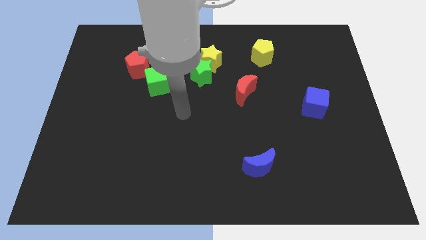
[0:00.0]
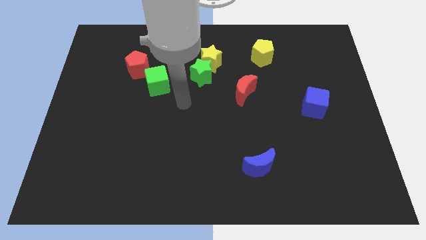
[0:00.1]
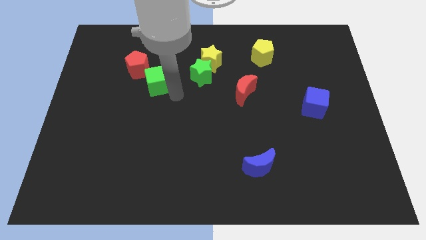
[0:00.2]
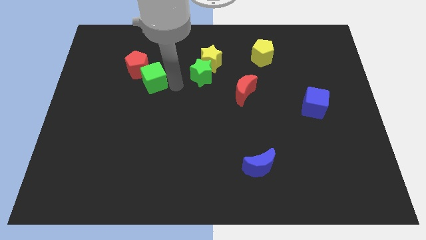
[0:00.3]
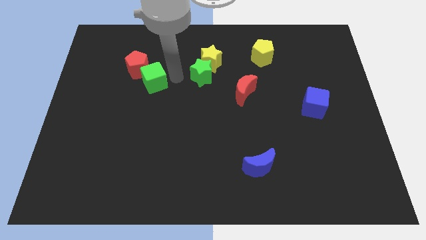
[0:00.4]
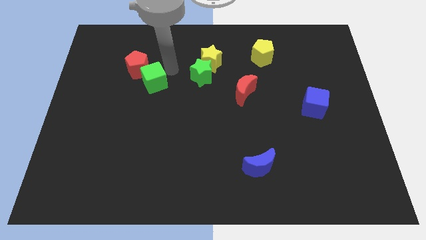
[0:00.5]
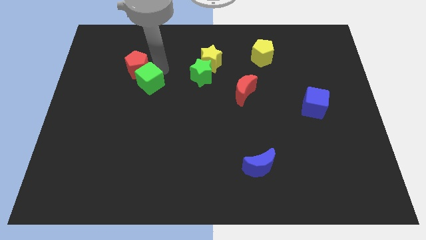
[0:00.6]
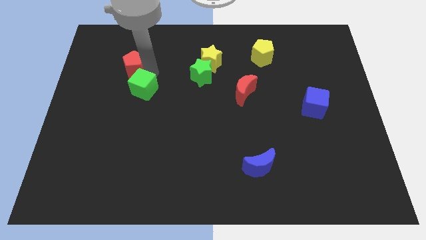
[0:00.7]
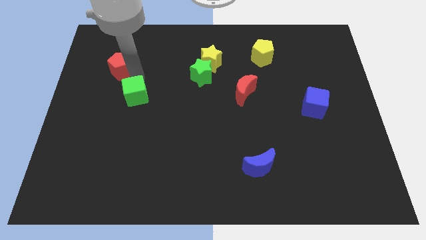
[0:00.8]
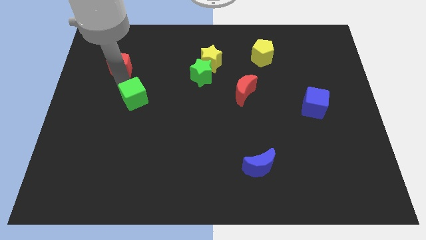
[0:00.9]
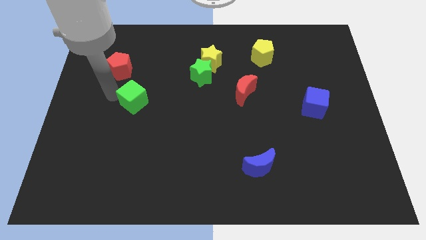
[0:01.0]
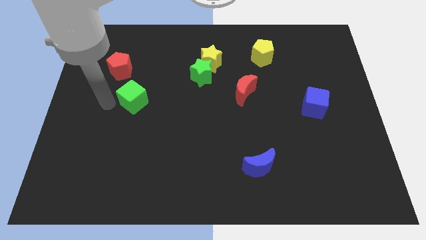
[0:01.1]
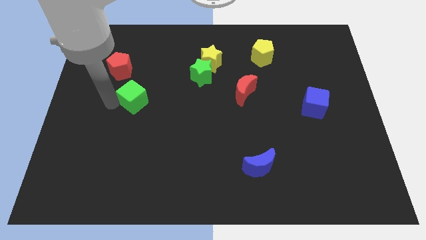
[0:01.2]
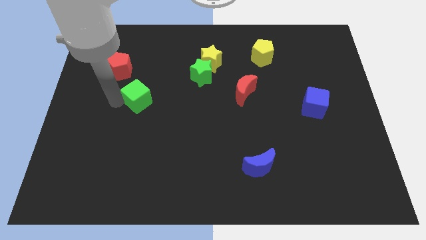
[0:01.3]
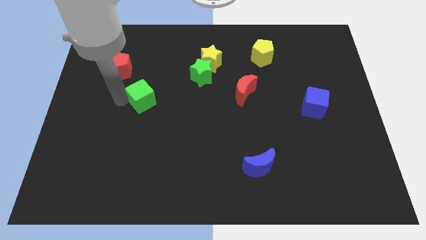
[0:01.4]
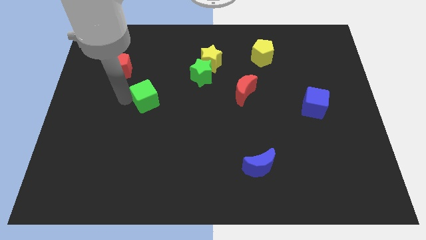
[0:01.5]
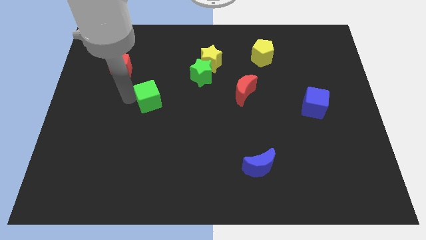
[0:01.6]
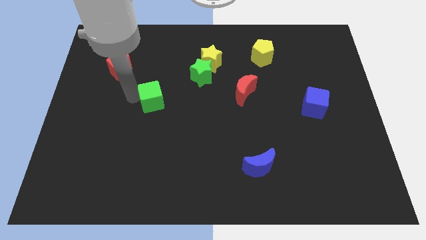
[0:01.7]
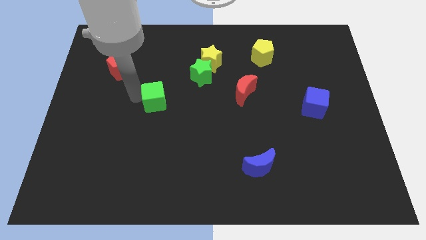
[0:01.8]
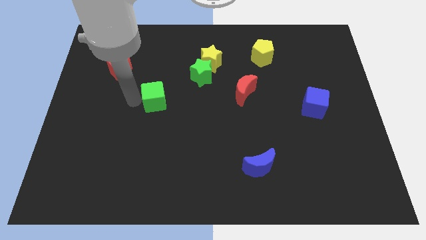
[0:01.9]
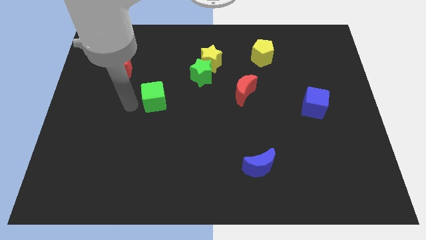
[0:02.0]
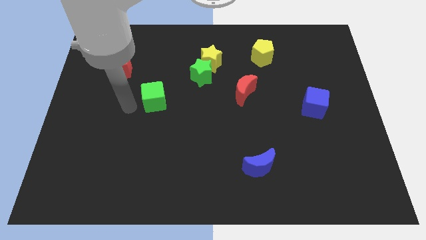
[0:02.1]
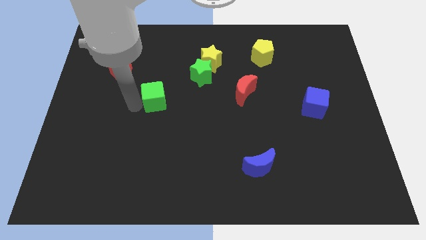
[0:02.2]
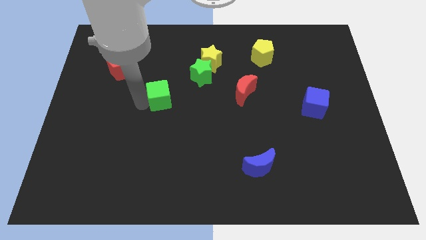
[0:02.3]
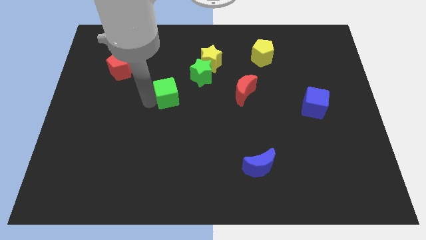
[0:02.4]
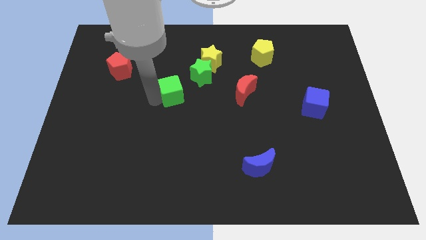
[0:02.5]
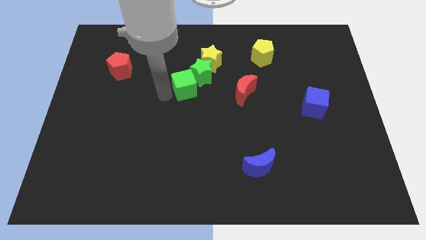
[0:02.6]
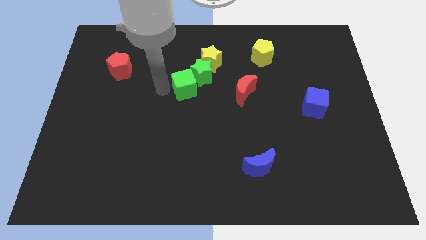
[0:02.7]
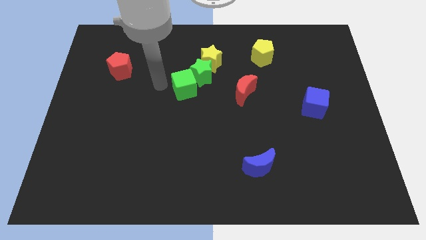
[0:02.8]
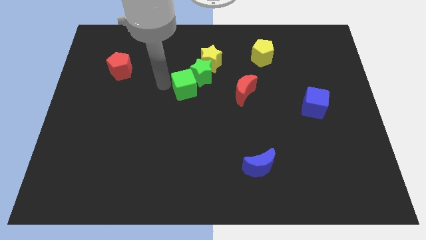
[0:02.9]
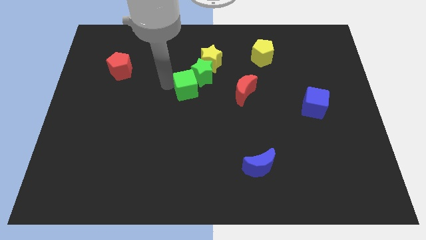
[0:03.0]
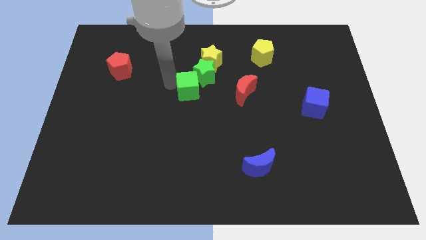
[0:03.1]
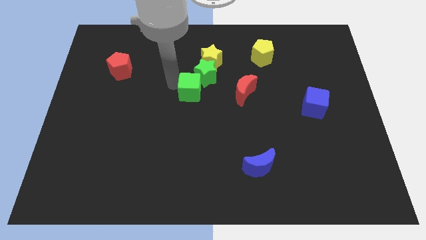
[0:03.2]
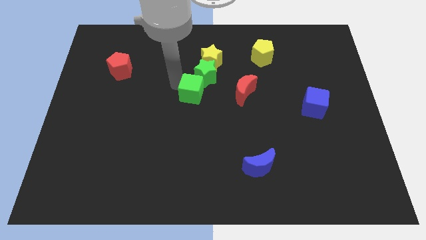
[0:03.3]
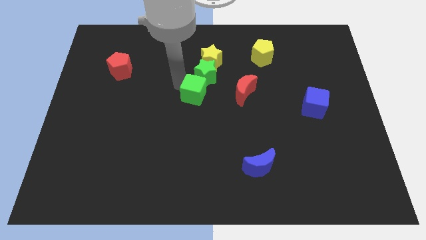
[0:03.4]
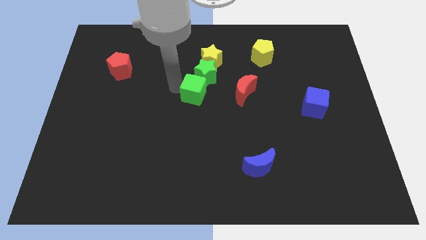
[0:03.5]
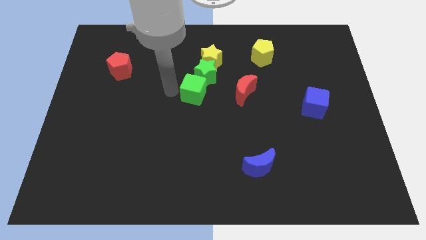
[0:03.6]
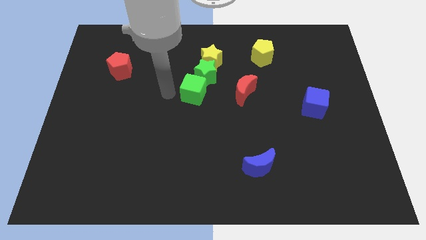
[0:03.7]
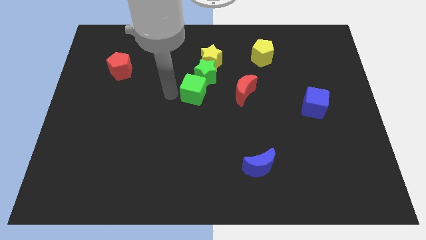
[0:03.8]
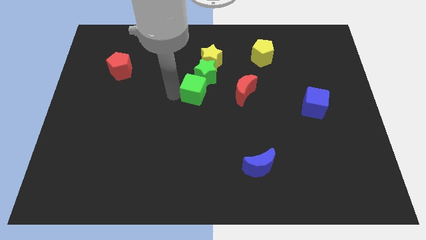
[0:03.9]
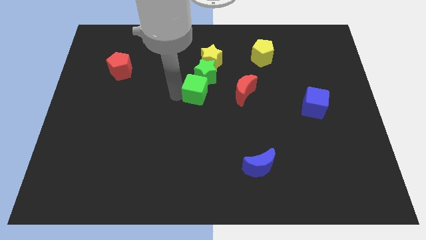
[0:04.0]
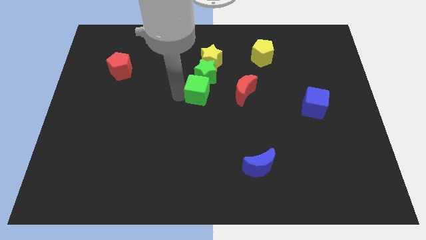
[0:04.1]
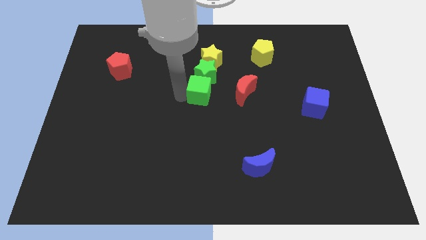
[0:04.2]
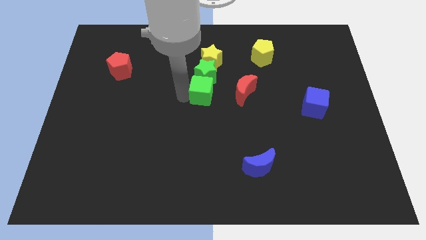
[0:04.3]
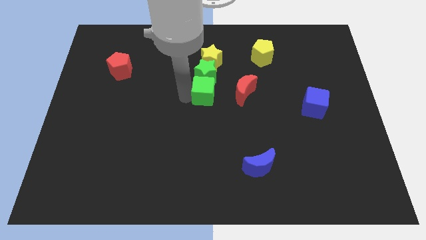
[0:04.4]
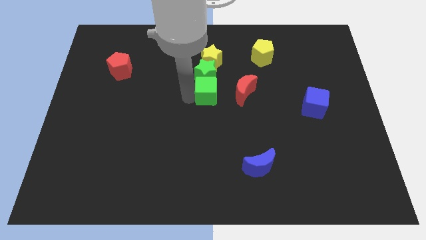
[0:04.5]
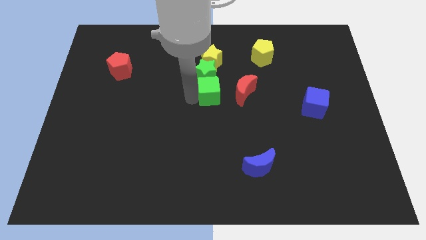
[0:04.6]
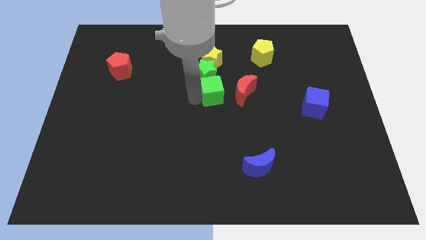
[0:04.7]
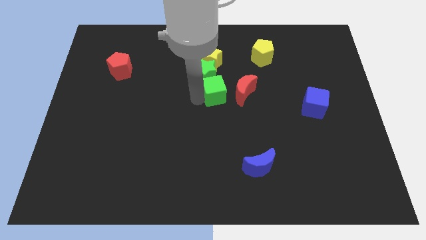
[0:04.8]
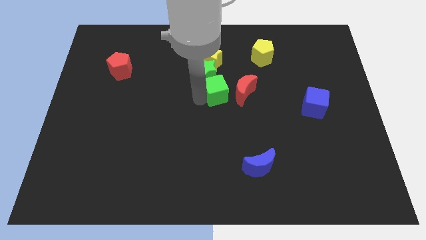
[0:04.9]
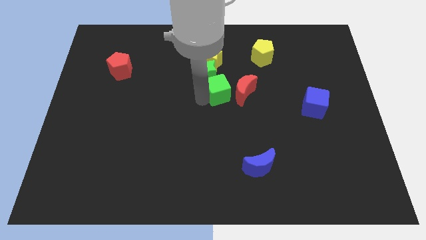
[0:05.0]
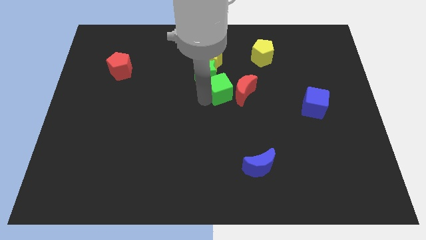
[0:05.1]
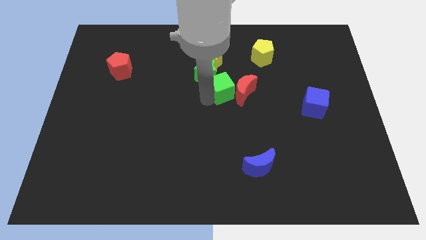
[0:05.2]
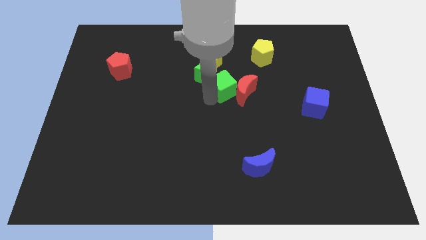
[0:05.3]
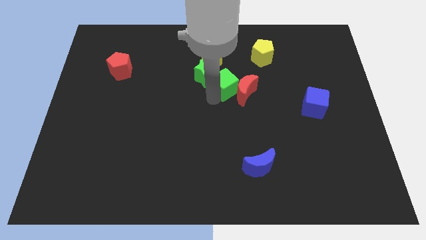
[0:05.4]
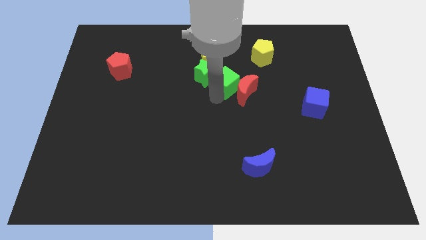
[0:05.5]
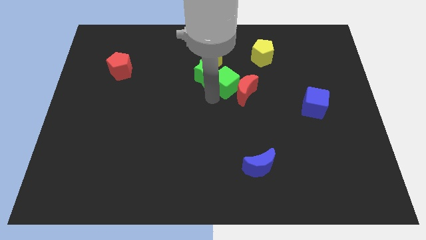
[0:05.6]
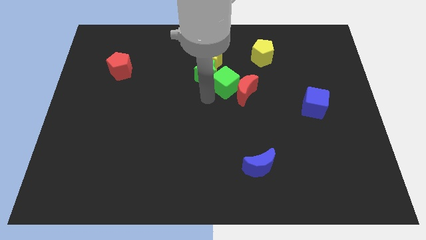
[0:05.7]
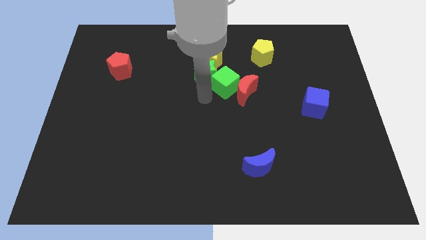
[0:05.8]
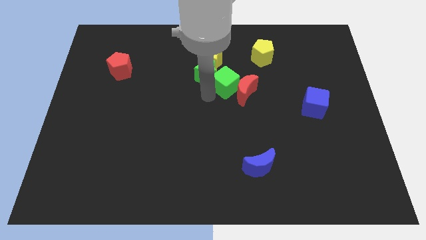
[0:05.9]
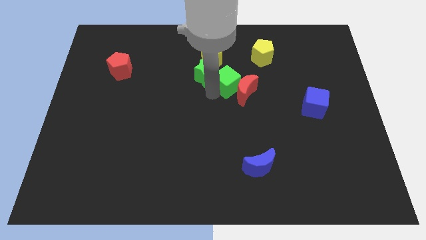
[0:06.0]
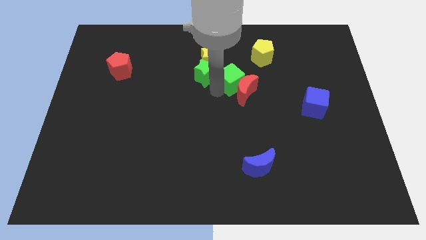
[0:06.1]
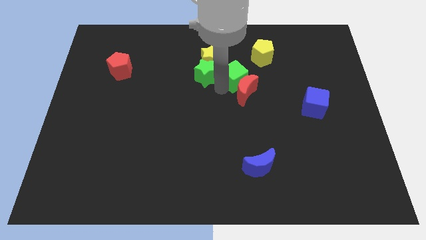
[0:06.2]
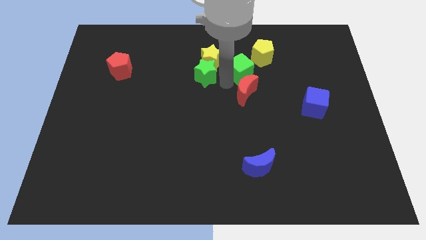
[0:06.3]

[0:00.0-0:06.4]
slide the green cube to the right

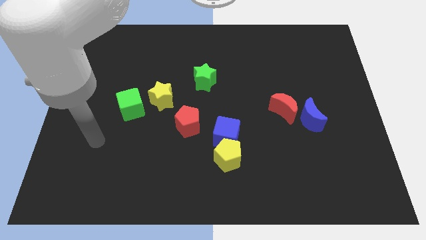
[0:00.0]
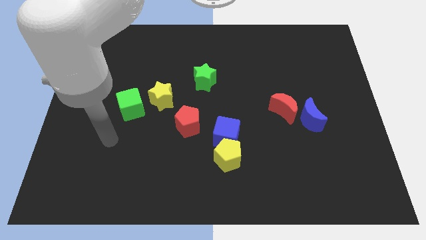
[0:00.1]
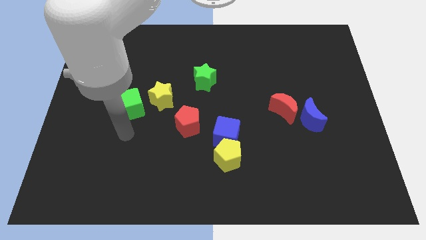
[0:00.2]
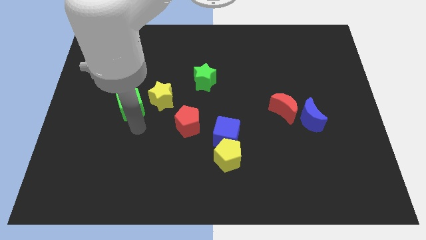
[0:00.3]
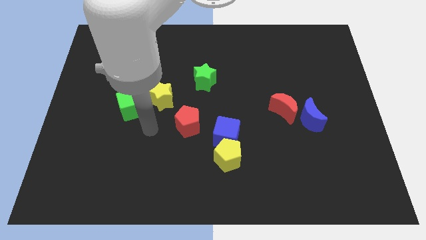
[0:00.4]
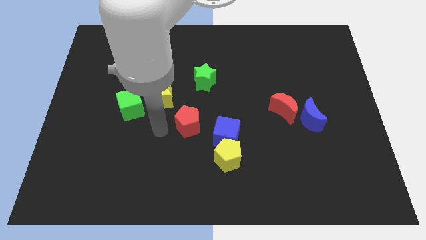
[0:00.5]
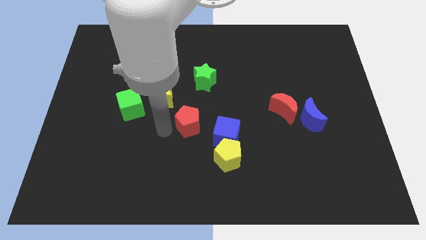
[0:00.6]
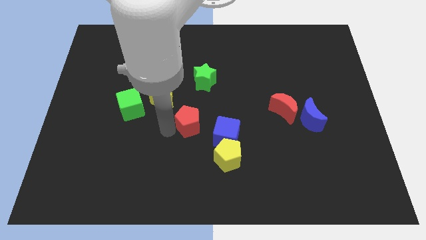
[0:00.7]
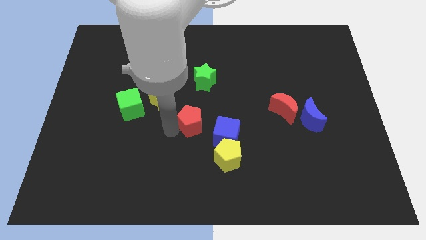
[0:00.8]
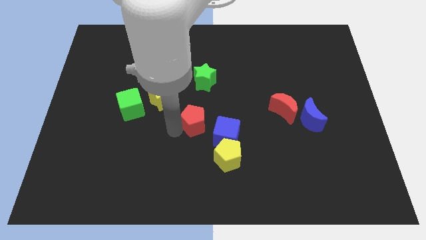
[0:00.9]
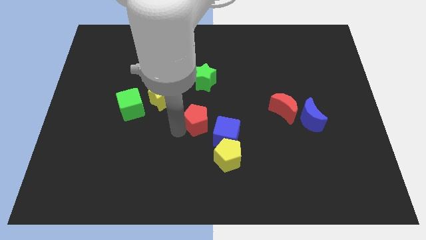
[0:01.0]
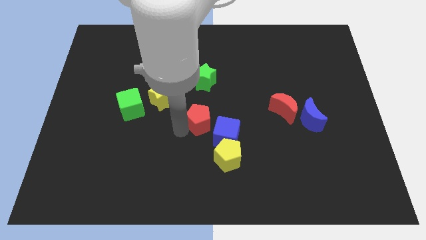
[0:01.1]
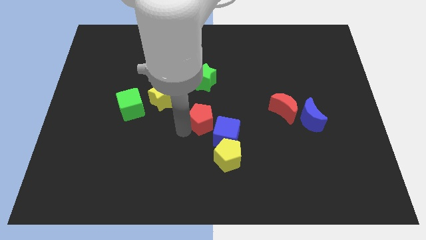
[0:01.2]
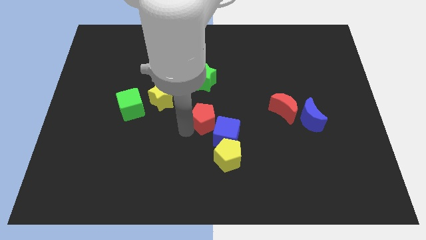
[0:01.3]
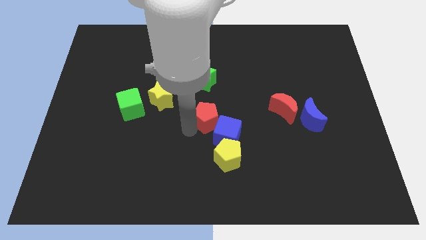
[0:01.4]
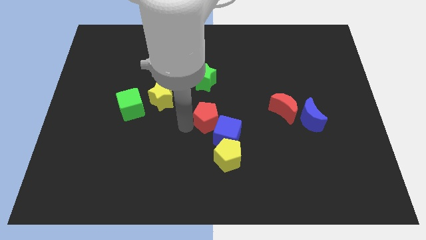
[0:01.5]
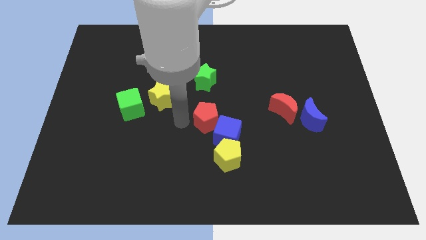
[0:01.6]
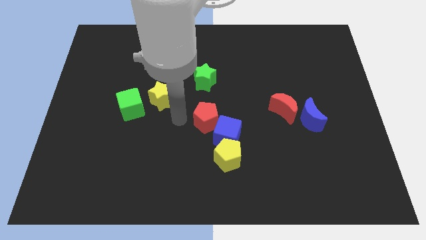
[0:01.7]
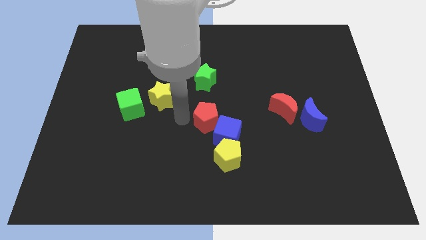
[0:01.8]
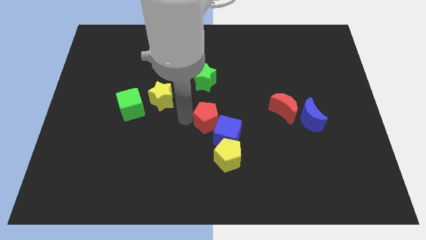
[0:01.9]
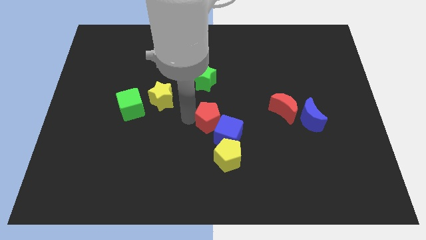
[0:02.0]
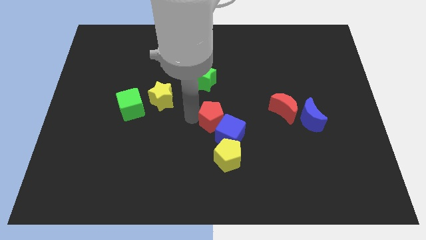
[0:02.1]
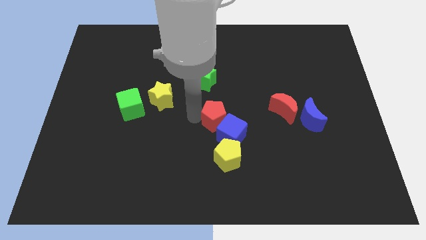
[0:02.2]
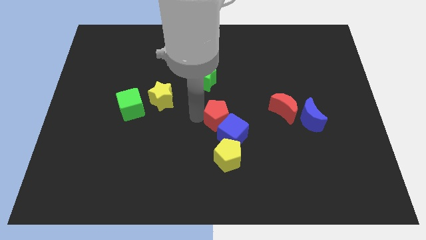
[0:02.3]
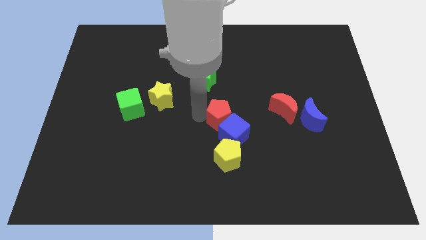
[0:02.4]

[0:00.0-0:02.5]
slightly push the red pentagon right
